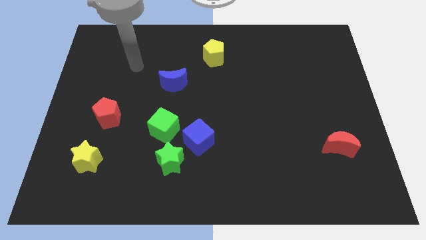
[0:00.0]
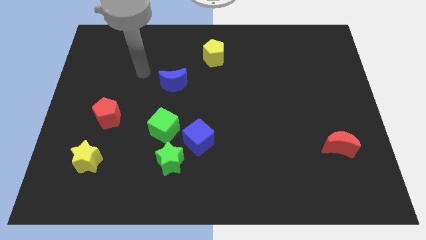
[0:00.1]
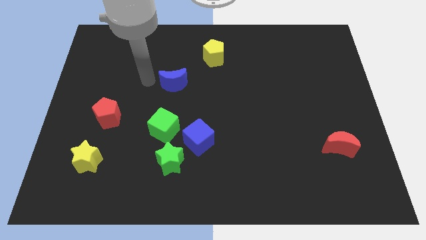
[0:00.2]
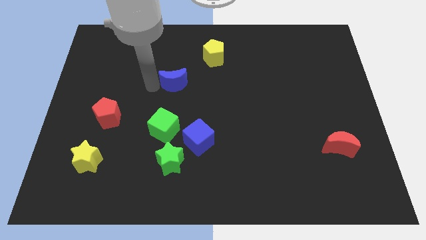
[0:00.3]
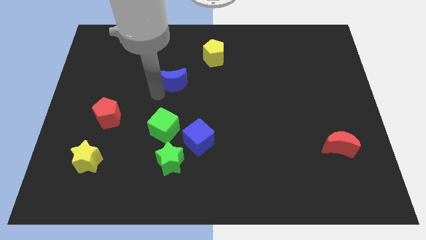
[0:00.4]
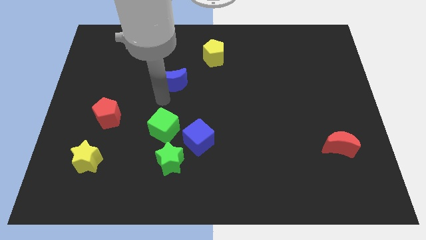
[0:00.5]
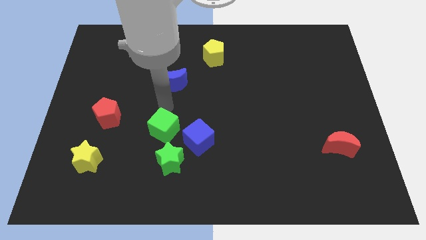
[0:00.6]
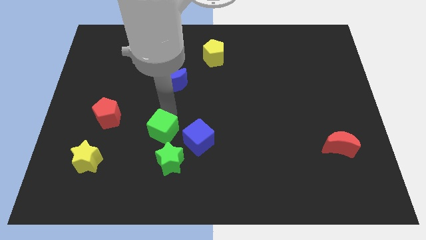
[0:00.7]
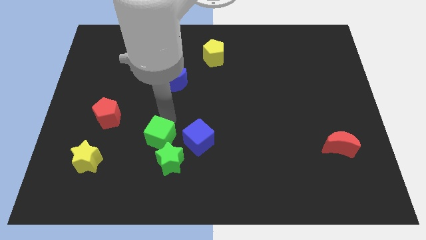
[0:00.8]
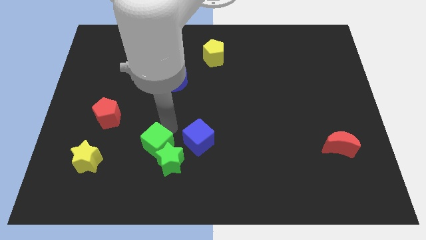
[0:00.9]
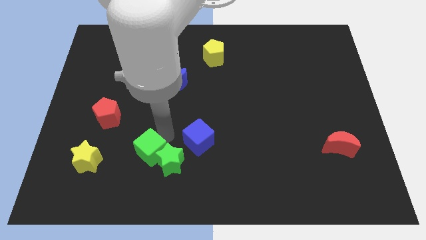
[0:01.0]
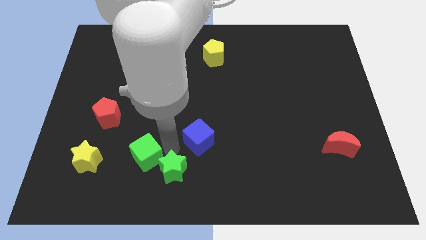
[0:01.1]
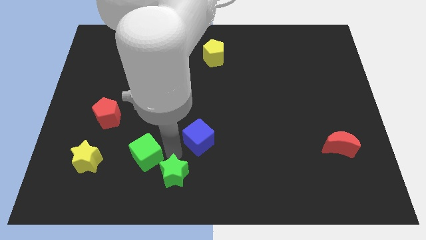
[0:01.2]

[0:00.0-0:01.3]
separate the blue cube from the green star and green cube

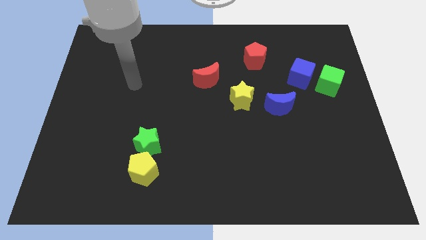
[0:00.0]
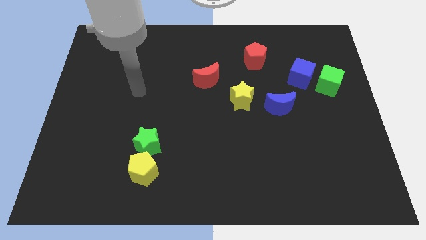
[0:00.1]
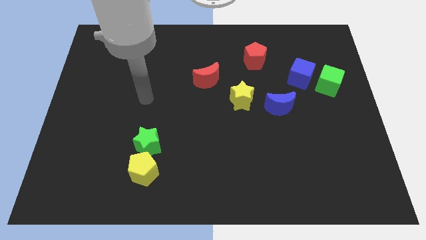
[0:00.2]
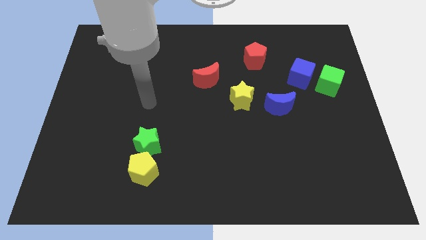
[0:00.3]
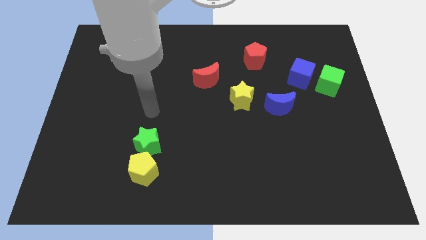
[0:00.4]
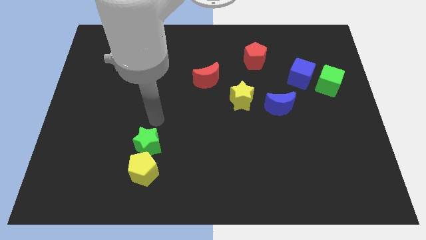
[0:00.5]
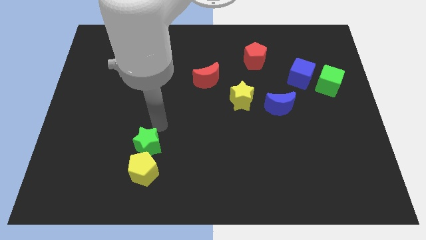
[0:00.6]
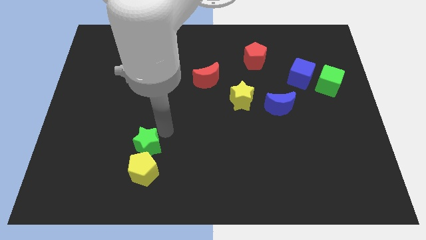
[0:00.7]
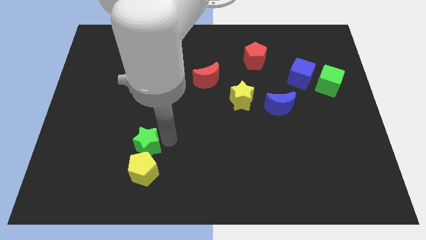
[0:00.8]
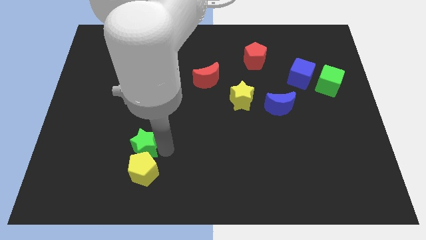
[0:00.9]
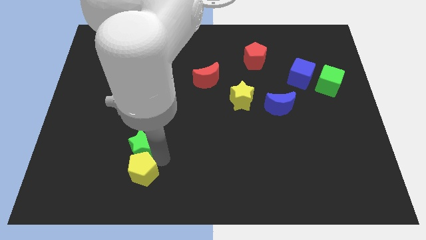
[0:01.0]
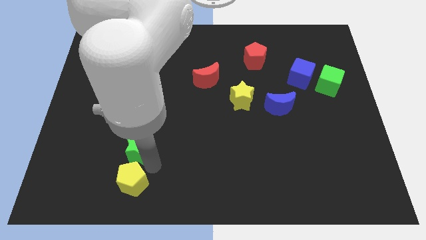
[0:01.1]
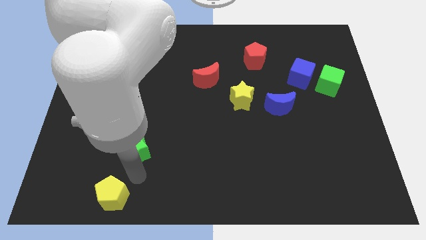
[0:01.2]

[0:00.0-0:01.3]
separate the green star from the yellow pentagon

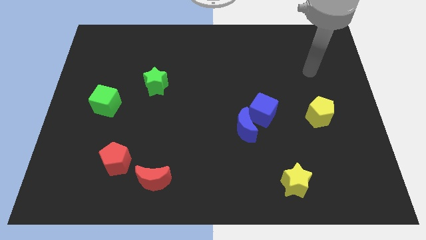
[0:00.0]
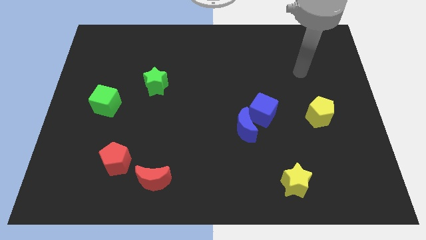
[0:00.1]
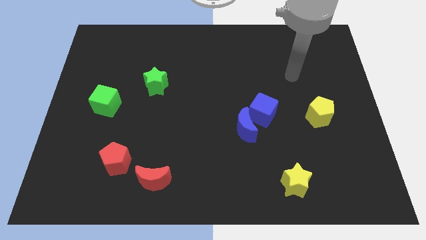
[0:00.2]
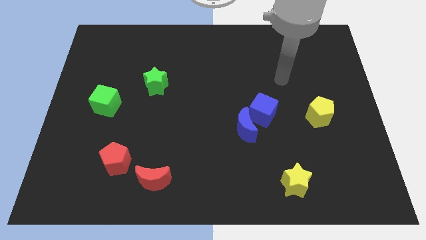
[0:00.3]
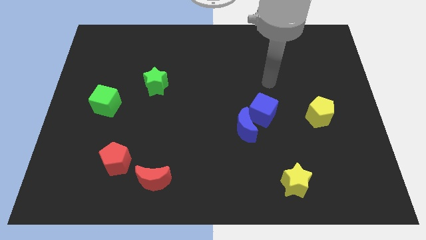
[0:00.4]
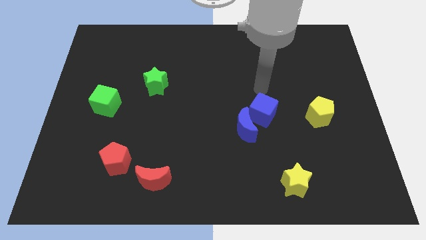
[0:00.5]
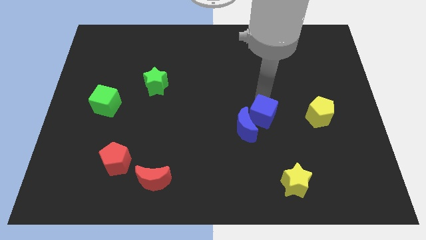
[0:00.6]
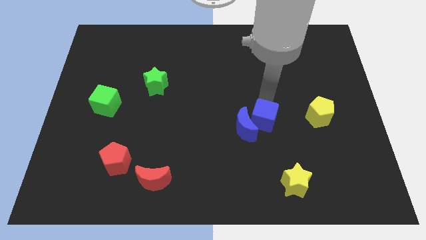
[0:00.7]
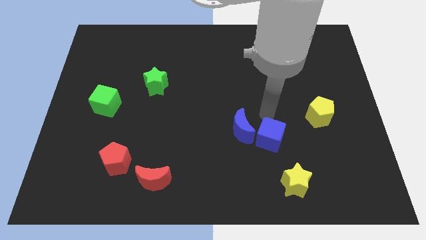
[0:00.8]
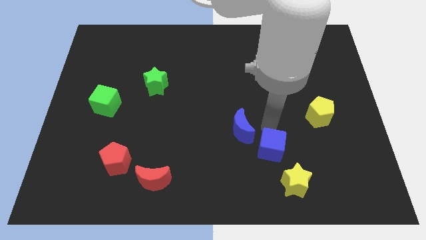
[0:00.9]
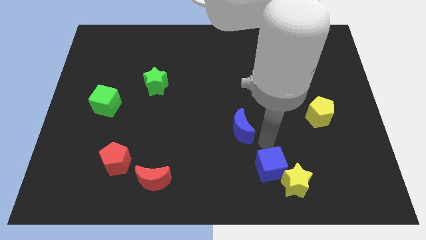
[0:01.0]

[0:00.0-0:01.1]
separate the blue moon from the blue cube

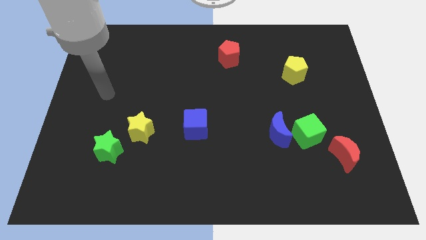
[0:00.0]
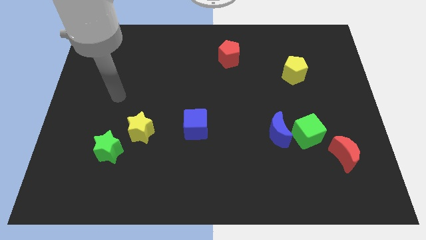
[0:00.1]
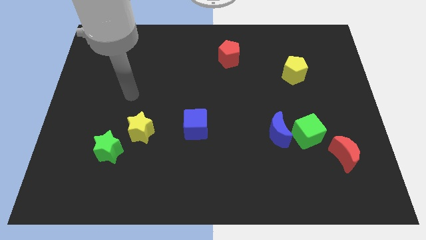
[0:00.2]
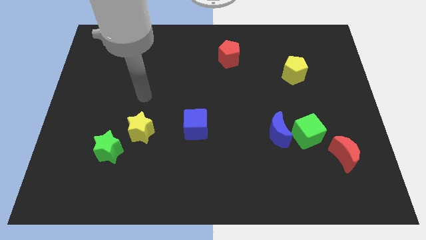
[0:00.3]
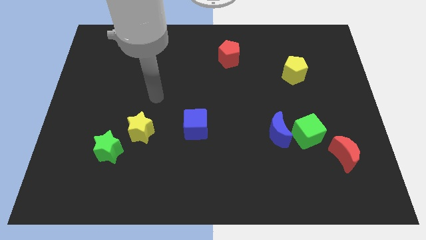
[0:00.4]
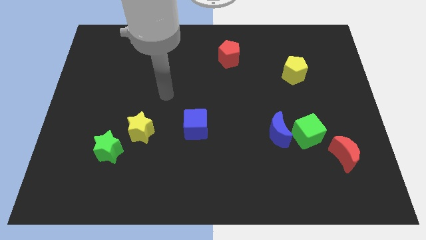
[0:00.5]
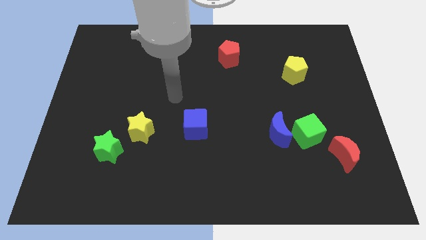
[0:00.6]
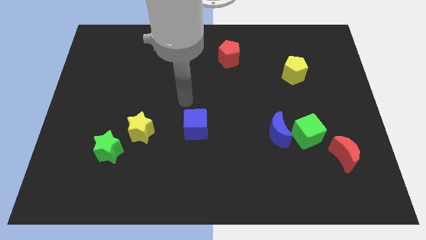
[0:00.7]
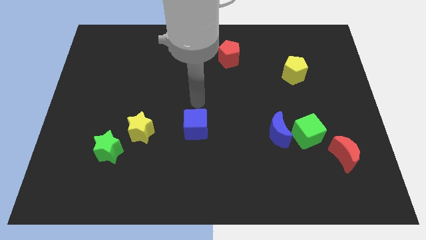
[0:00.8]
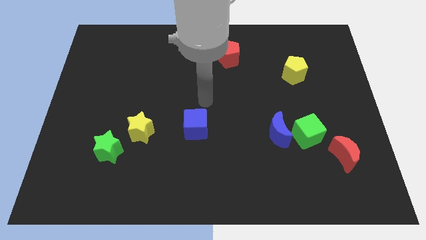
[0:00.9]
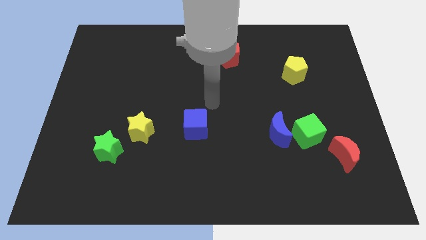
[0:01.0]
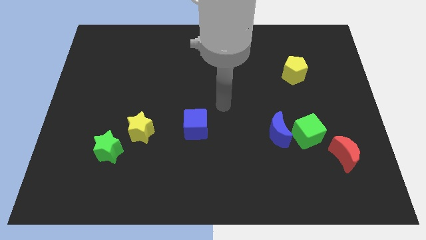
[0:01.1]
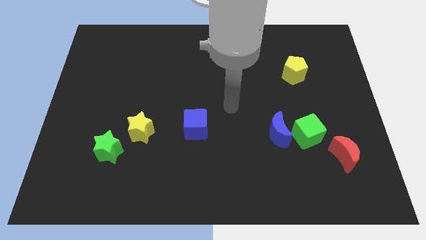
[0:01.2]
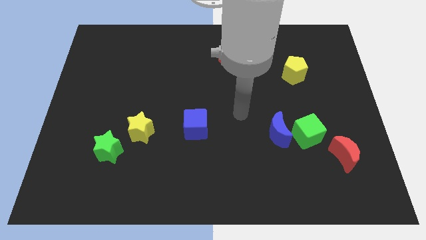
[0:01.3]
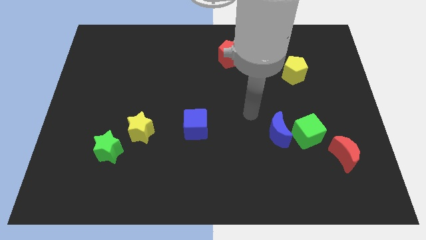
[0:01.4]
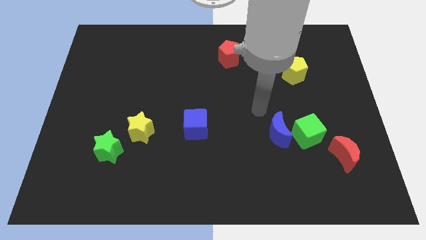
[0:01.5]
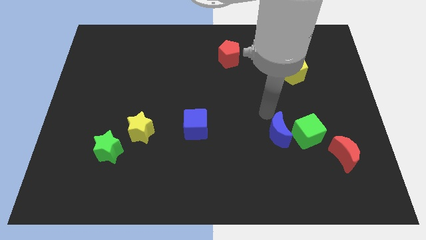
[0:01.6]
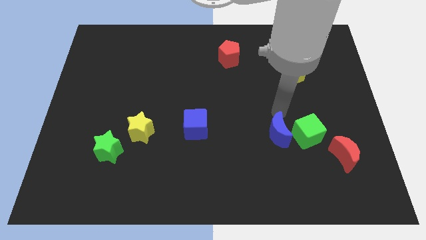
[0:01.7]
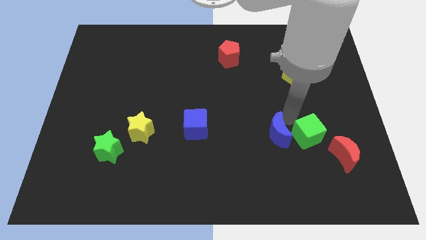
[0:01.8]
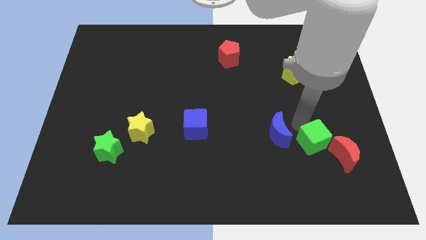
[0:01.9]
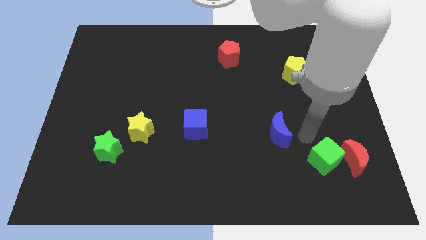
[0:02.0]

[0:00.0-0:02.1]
separate the blue moon from the green cube

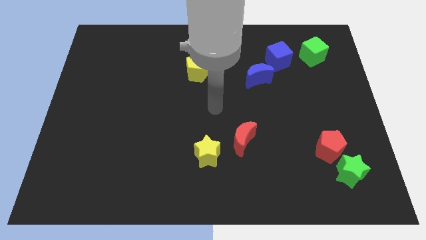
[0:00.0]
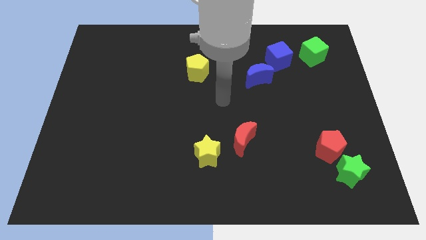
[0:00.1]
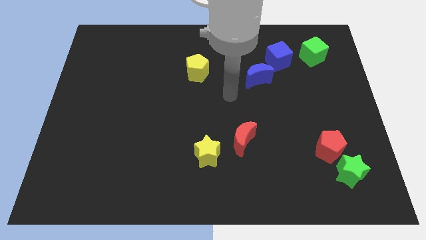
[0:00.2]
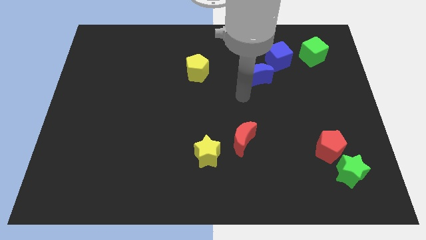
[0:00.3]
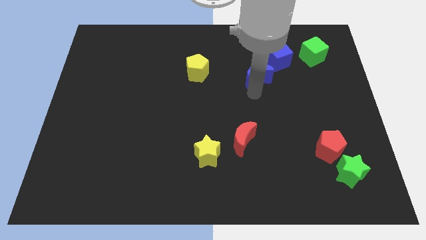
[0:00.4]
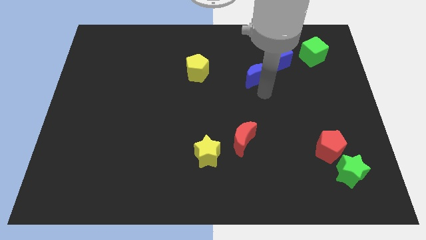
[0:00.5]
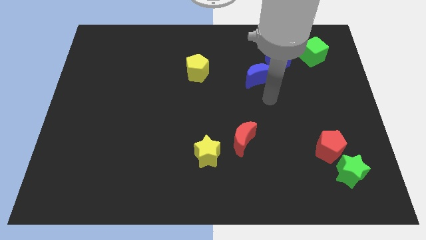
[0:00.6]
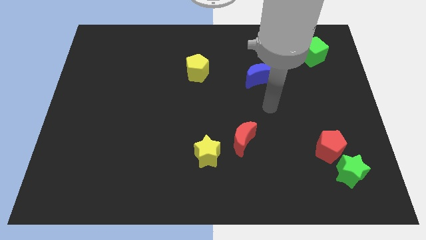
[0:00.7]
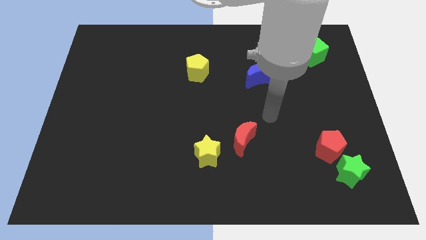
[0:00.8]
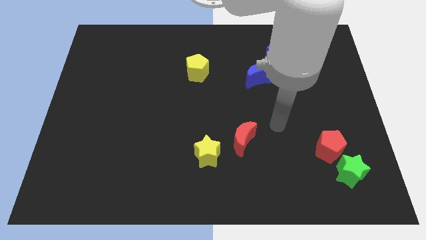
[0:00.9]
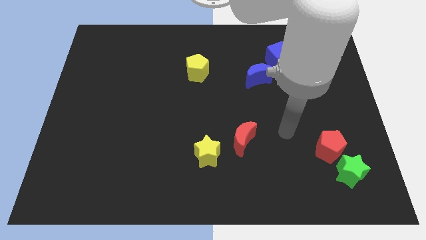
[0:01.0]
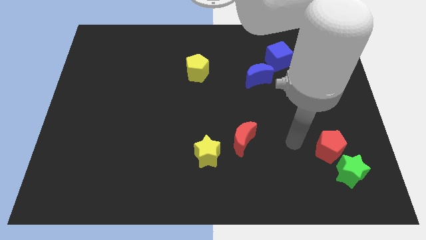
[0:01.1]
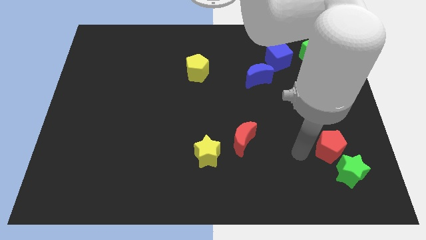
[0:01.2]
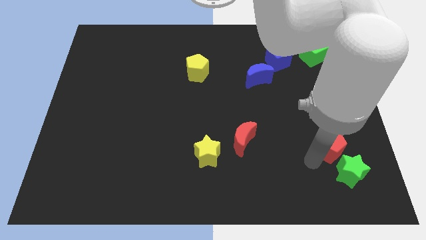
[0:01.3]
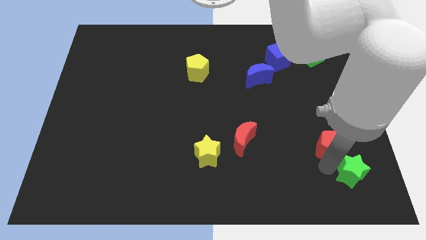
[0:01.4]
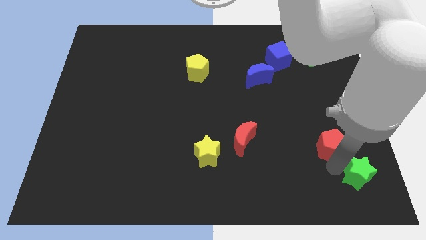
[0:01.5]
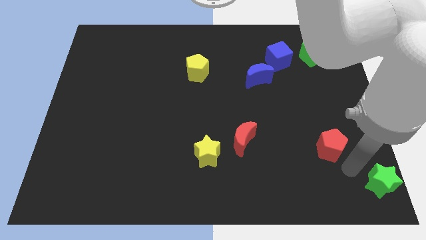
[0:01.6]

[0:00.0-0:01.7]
pull the red pentagon apart from the green star

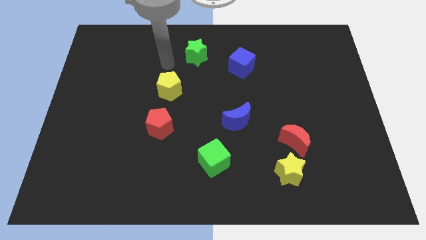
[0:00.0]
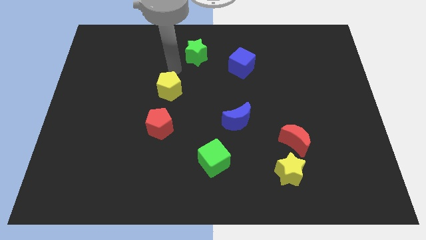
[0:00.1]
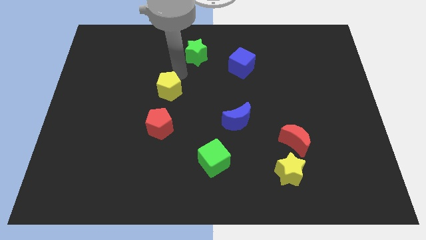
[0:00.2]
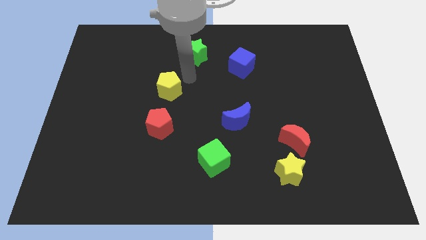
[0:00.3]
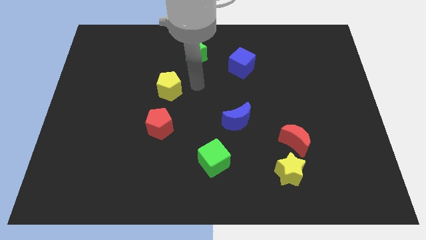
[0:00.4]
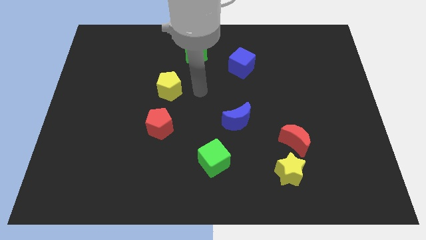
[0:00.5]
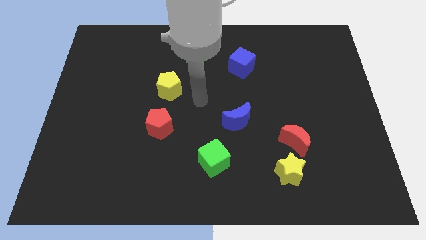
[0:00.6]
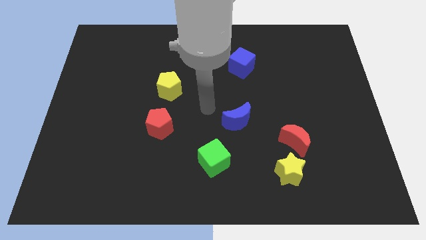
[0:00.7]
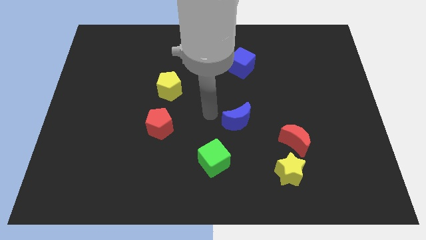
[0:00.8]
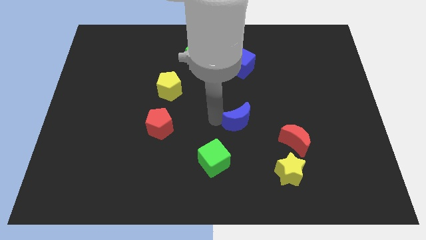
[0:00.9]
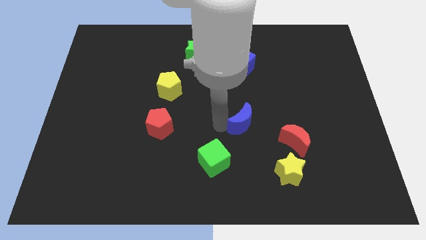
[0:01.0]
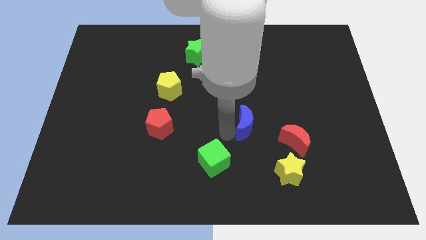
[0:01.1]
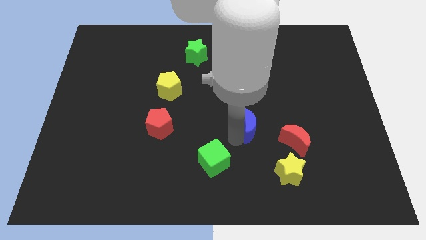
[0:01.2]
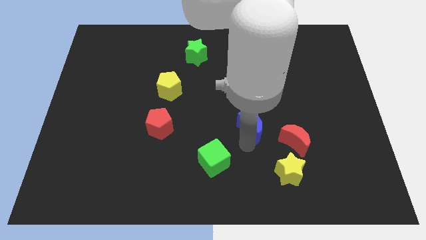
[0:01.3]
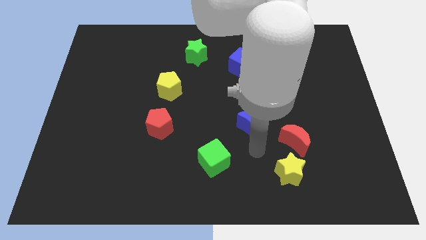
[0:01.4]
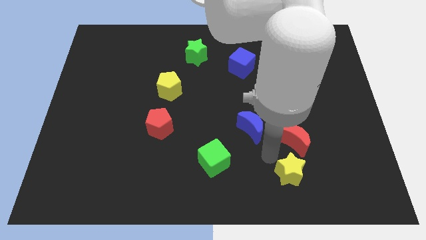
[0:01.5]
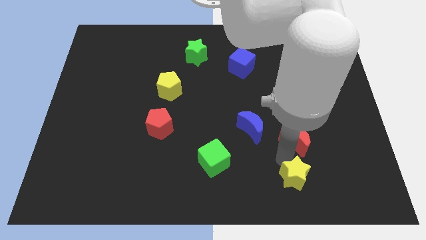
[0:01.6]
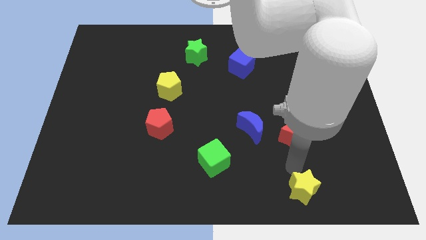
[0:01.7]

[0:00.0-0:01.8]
separate the red moon from the yellow star

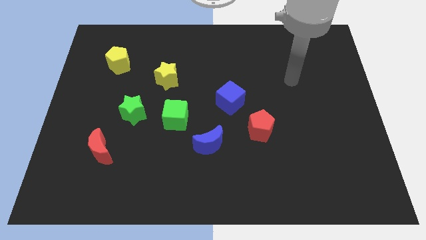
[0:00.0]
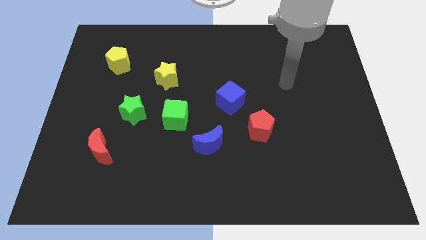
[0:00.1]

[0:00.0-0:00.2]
pull the green cube apart from the green star
